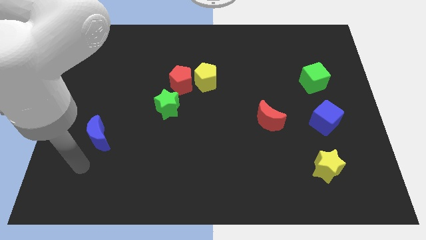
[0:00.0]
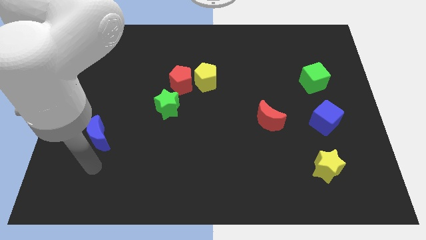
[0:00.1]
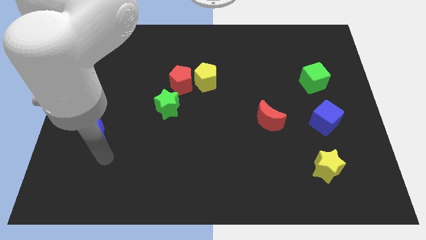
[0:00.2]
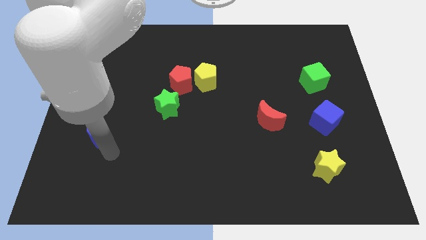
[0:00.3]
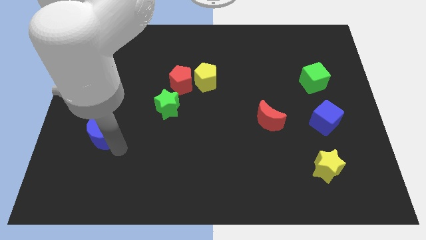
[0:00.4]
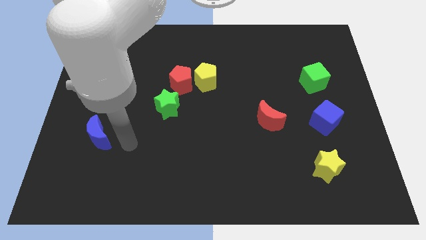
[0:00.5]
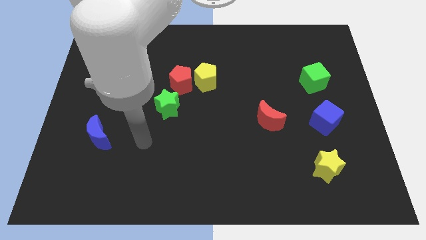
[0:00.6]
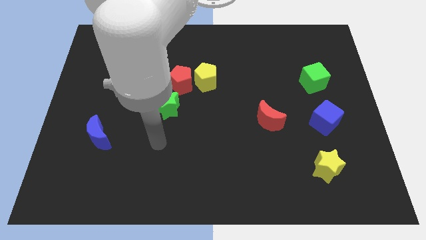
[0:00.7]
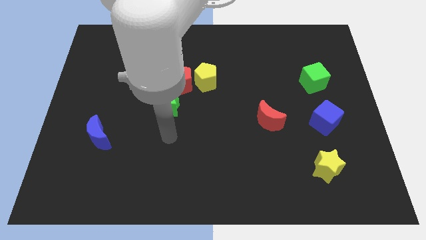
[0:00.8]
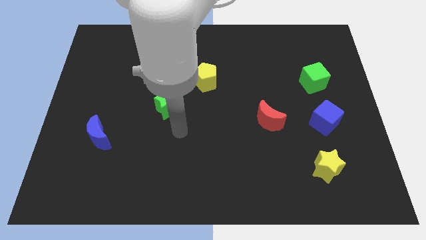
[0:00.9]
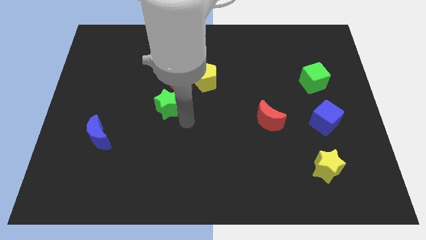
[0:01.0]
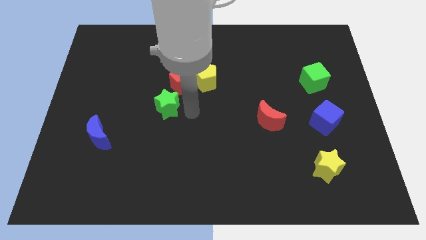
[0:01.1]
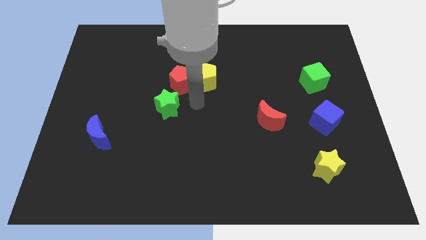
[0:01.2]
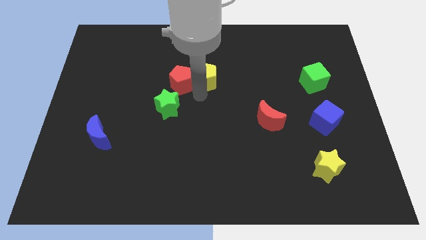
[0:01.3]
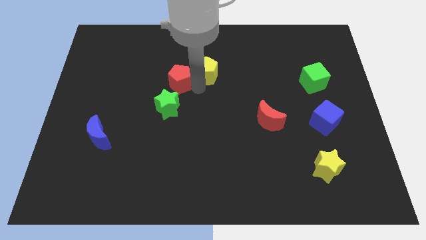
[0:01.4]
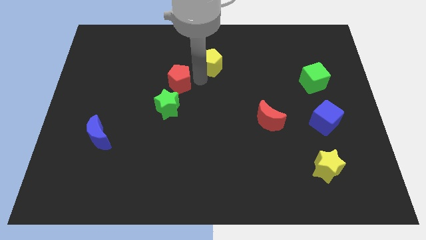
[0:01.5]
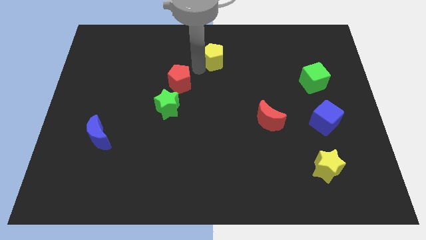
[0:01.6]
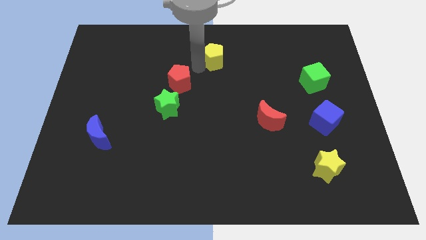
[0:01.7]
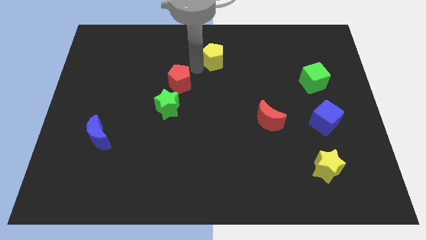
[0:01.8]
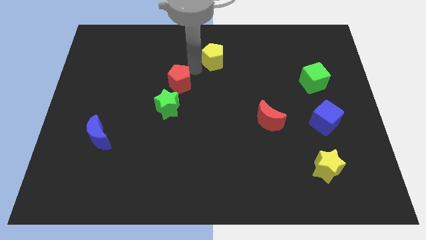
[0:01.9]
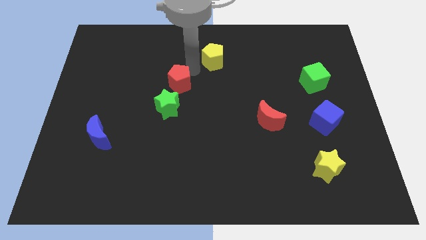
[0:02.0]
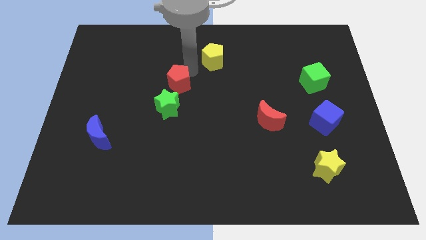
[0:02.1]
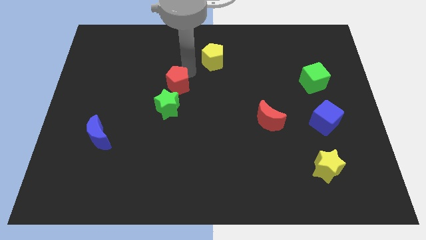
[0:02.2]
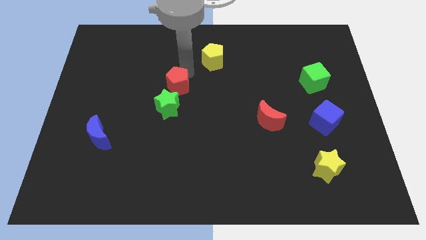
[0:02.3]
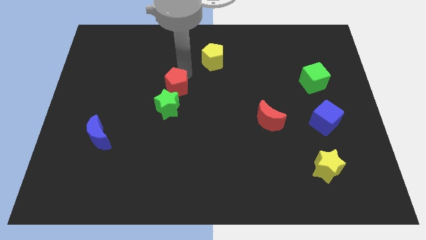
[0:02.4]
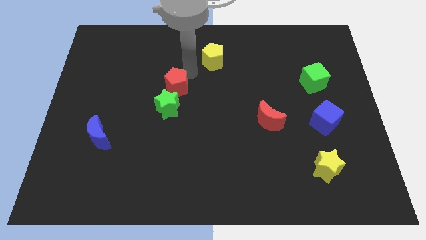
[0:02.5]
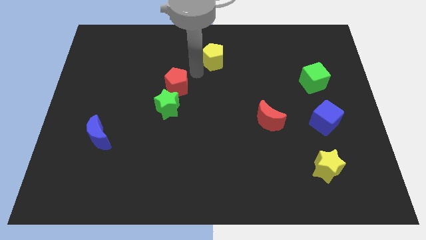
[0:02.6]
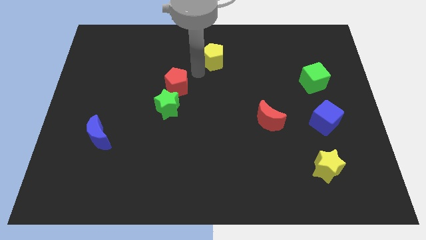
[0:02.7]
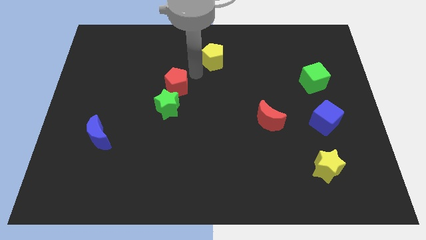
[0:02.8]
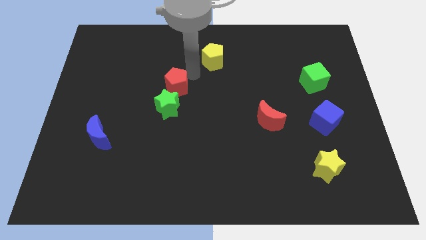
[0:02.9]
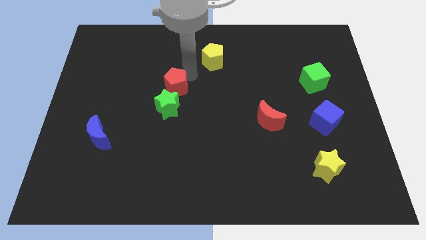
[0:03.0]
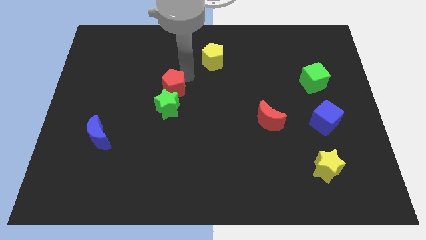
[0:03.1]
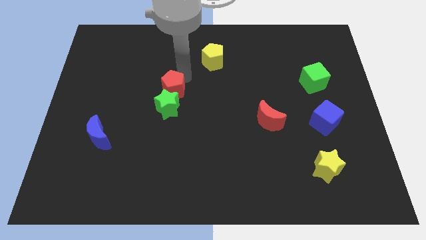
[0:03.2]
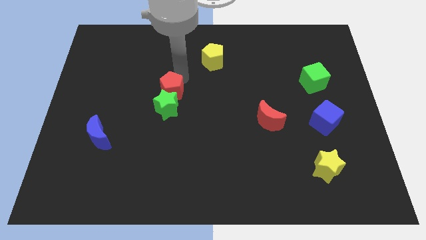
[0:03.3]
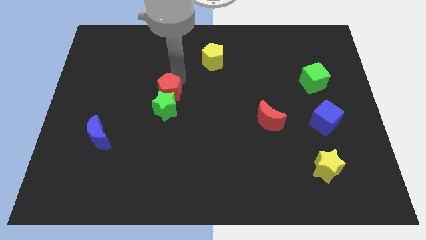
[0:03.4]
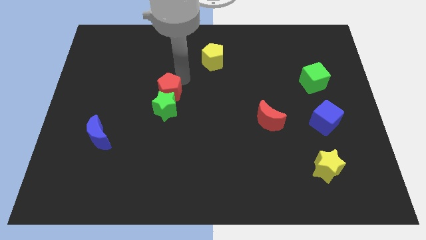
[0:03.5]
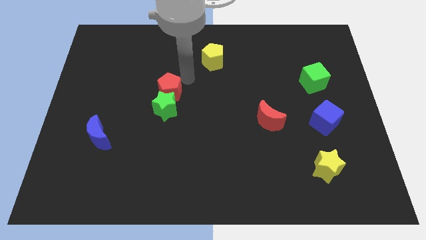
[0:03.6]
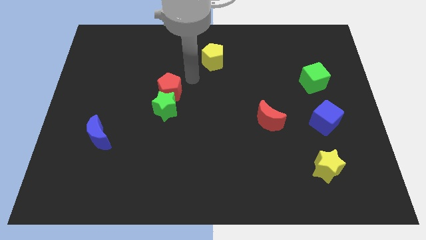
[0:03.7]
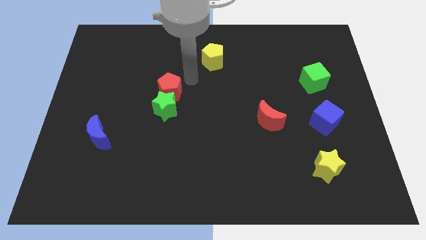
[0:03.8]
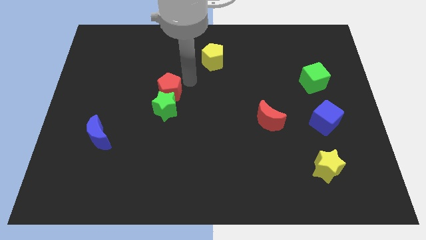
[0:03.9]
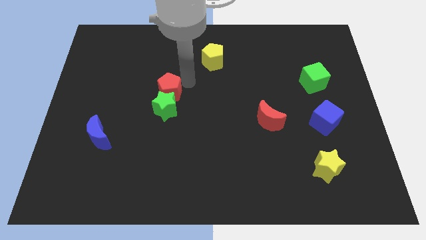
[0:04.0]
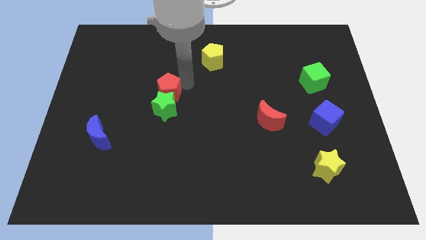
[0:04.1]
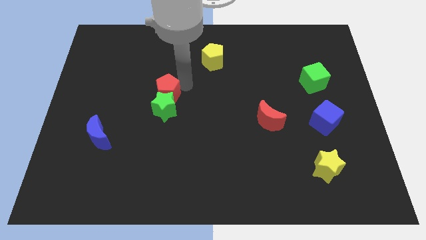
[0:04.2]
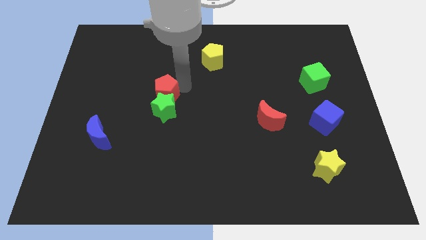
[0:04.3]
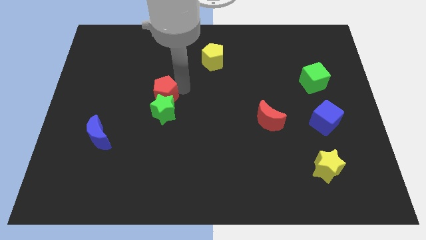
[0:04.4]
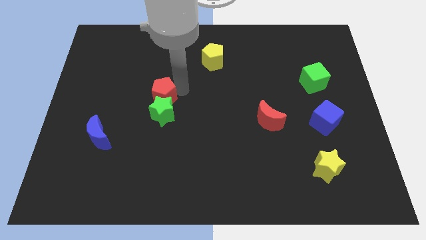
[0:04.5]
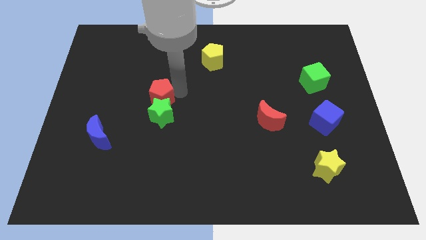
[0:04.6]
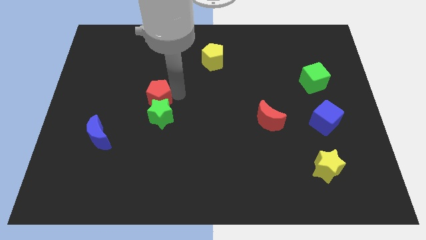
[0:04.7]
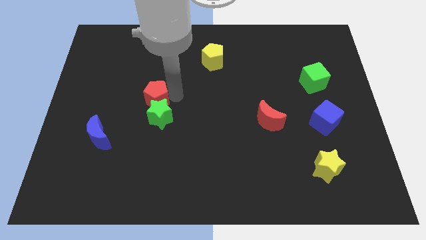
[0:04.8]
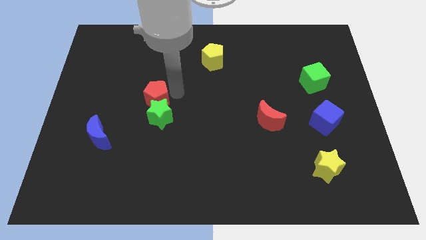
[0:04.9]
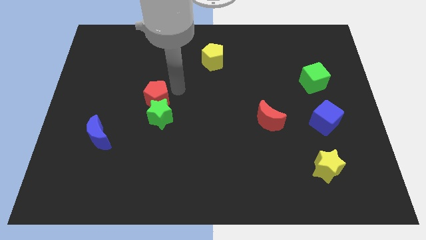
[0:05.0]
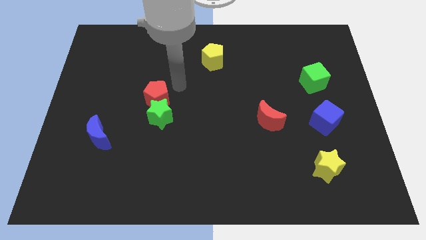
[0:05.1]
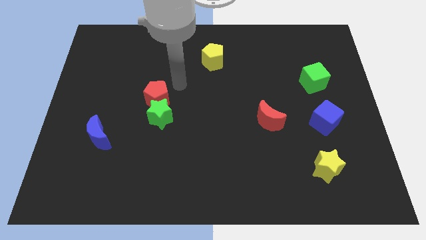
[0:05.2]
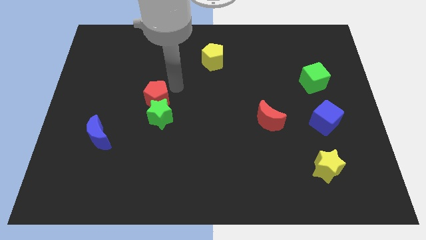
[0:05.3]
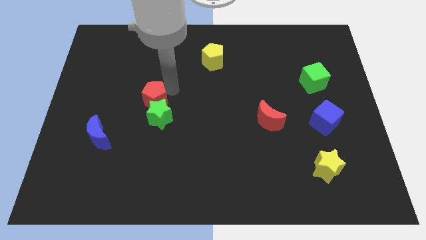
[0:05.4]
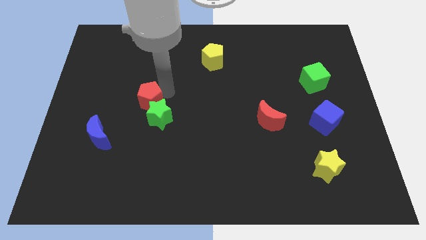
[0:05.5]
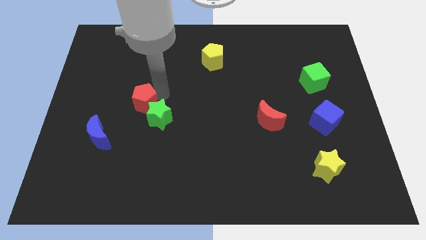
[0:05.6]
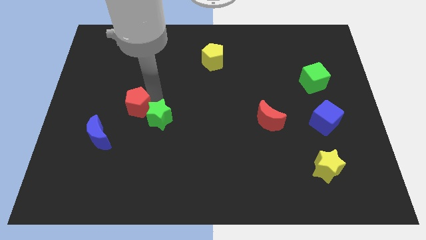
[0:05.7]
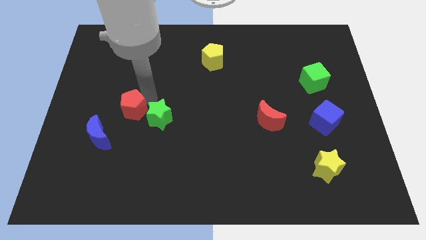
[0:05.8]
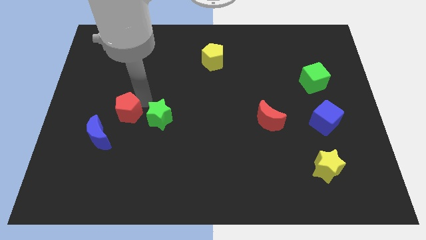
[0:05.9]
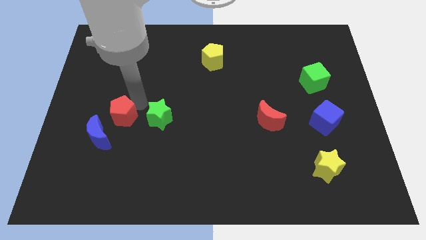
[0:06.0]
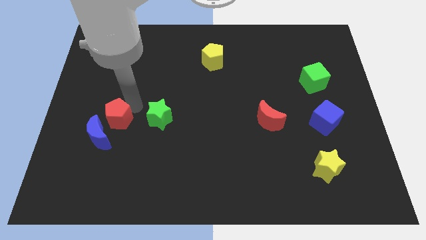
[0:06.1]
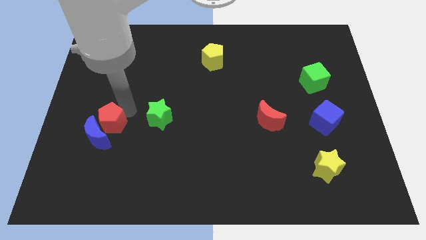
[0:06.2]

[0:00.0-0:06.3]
move the red pentagon close to the blue moon

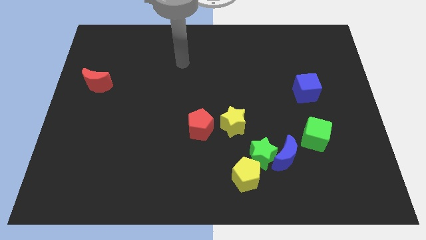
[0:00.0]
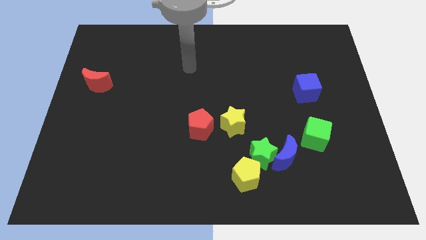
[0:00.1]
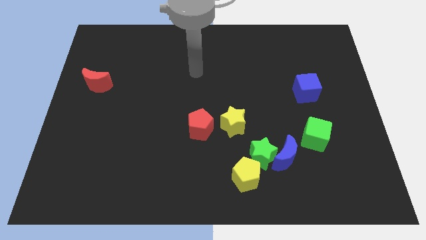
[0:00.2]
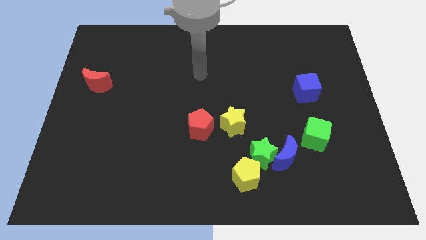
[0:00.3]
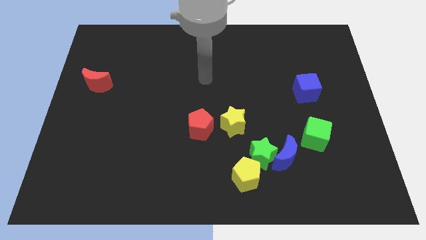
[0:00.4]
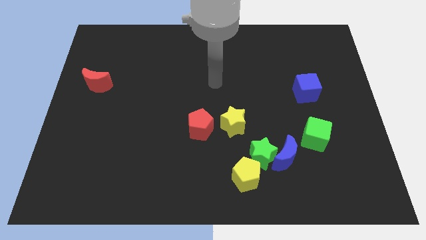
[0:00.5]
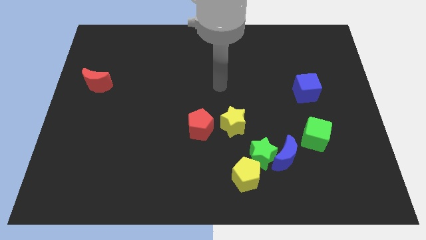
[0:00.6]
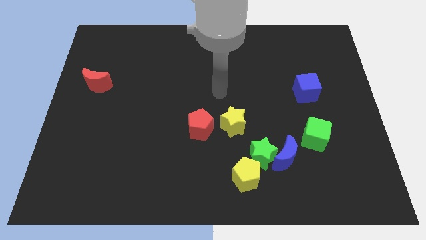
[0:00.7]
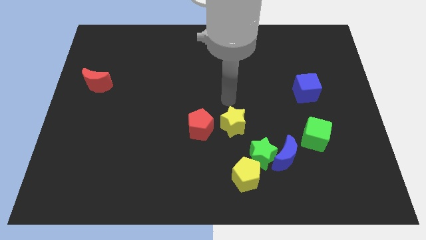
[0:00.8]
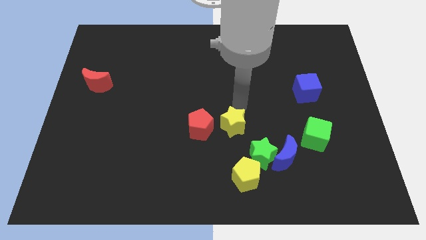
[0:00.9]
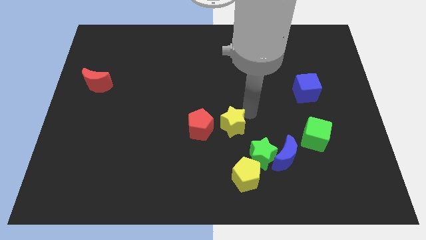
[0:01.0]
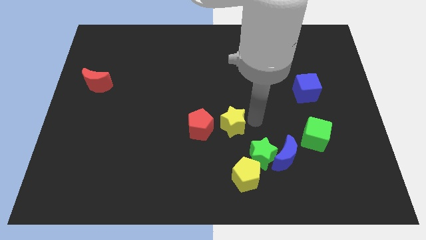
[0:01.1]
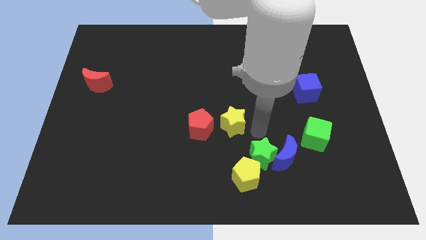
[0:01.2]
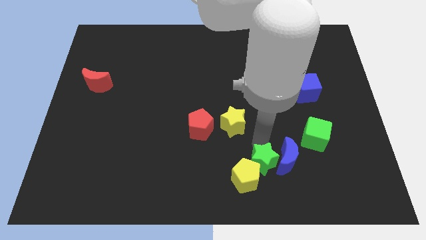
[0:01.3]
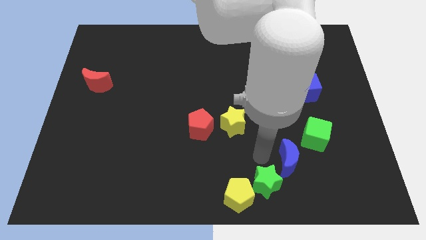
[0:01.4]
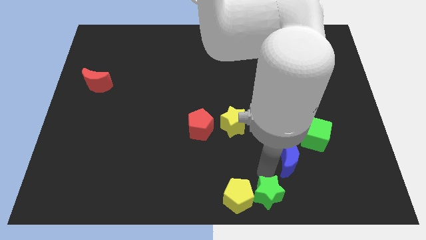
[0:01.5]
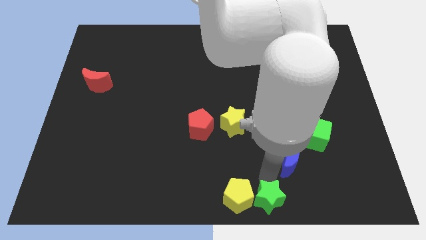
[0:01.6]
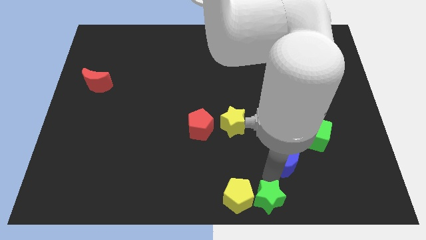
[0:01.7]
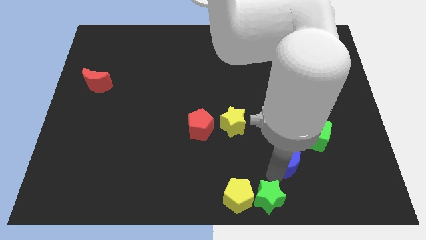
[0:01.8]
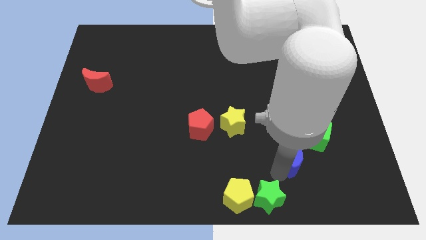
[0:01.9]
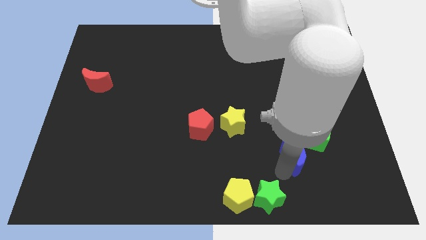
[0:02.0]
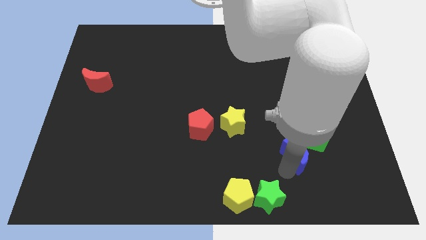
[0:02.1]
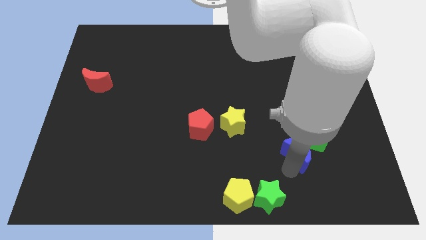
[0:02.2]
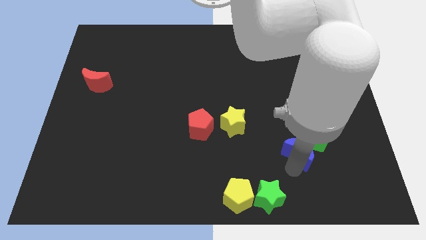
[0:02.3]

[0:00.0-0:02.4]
slide the blue moon close to the green cube
